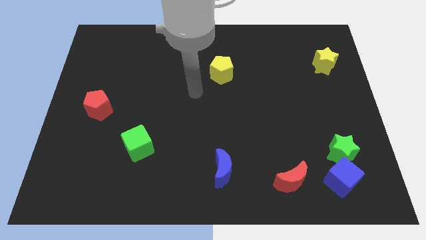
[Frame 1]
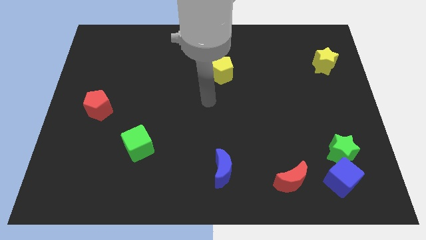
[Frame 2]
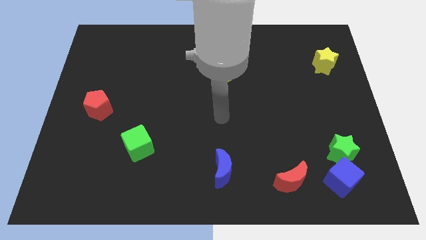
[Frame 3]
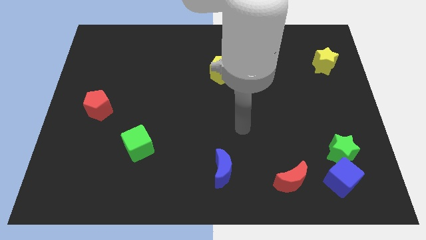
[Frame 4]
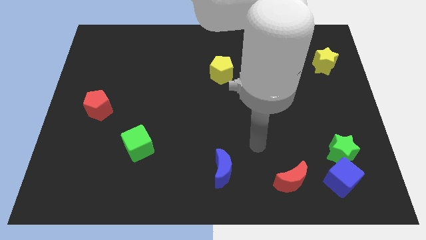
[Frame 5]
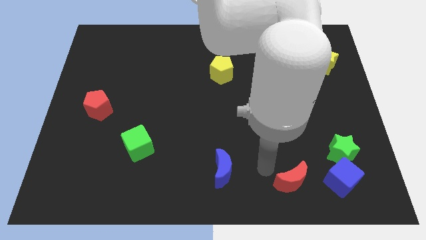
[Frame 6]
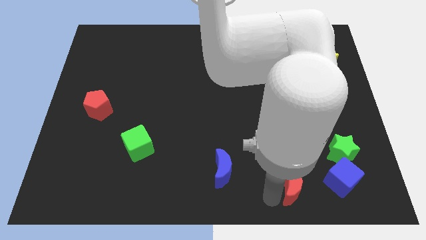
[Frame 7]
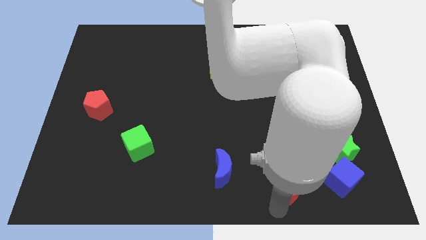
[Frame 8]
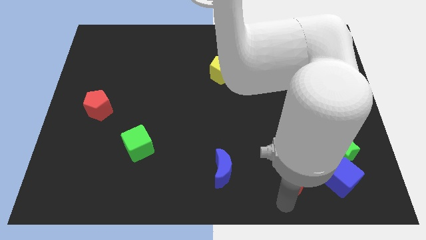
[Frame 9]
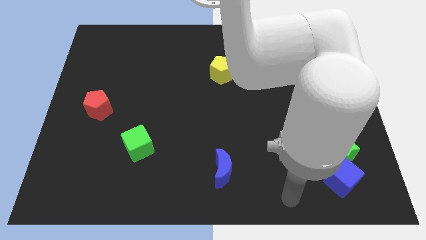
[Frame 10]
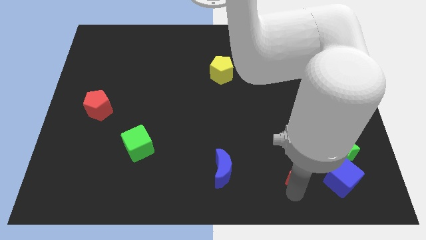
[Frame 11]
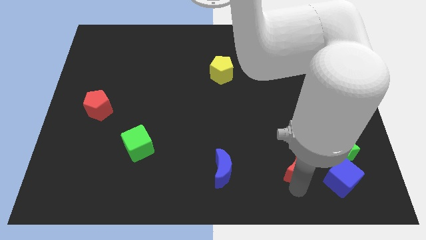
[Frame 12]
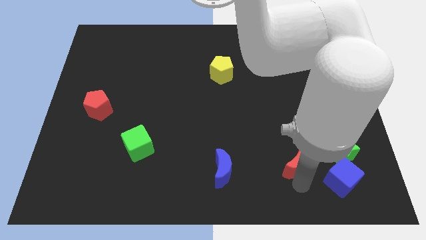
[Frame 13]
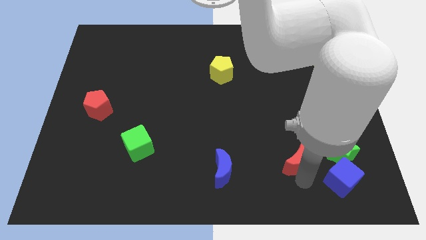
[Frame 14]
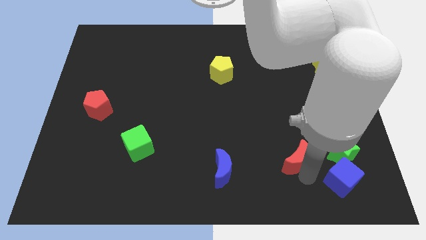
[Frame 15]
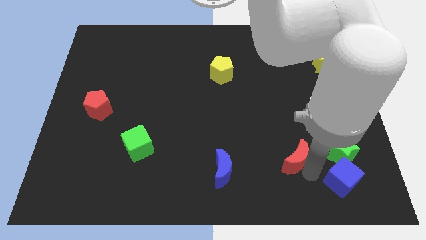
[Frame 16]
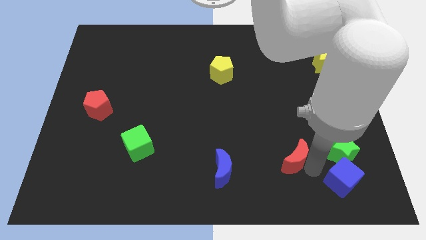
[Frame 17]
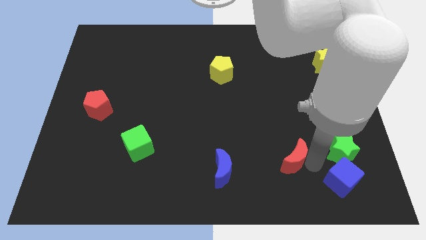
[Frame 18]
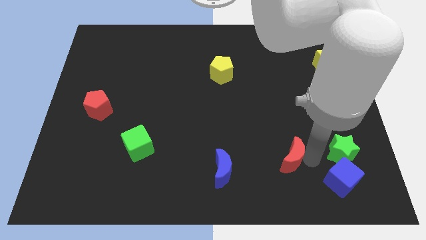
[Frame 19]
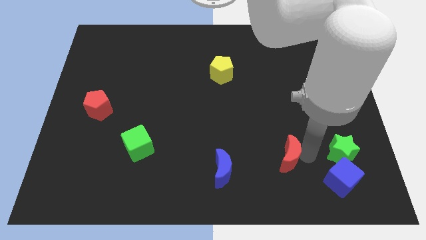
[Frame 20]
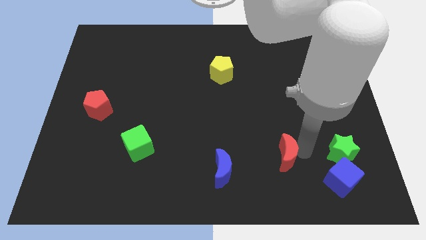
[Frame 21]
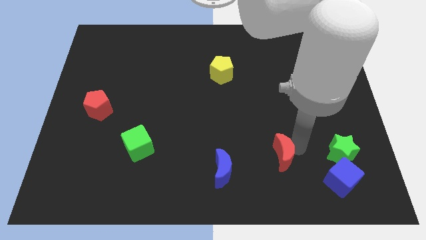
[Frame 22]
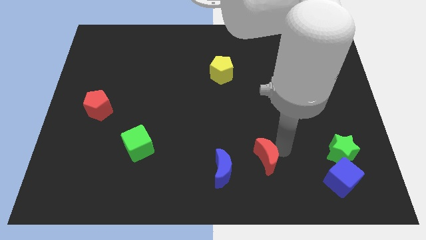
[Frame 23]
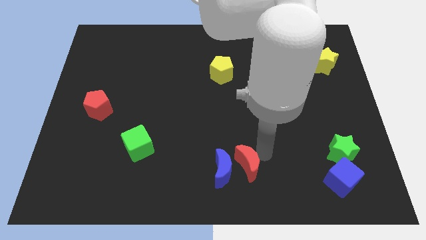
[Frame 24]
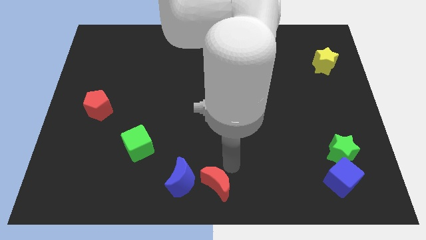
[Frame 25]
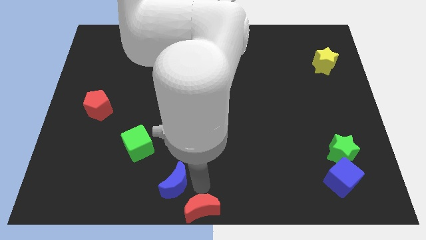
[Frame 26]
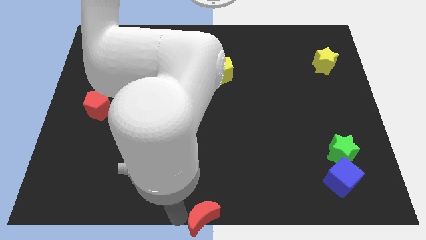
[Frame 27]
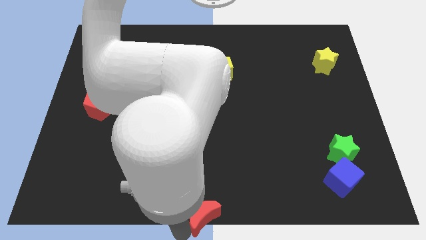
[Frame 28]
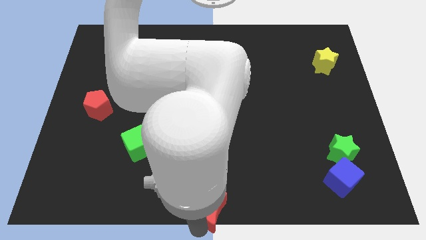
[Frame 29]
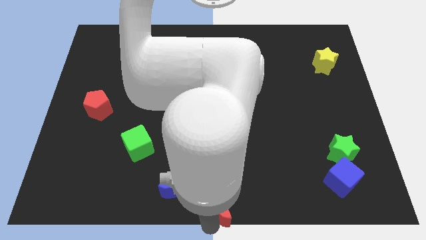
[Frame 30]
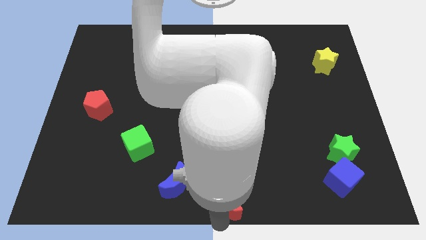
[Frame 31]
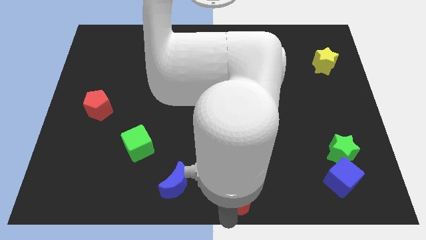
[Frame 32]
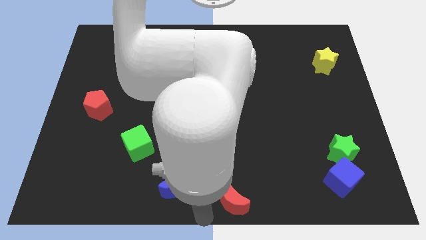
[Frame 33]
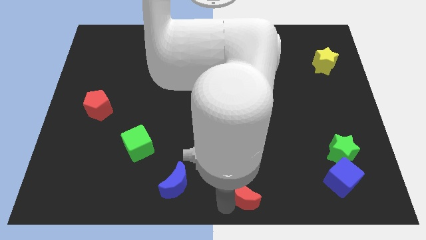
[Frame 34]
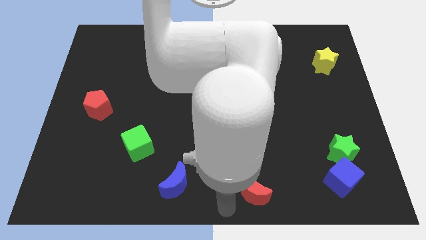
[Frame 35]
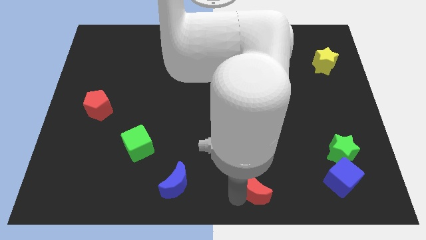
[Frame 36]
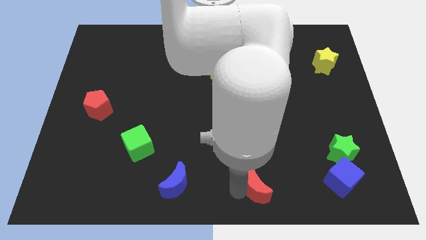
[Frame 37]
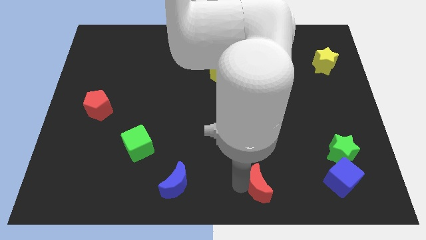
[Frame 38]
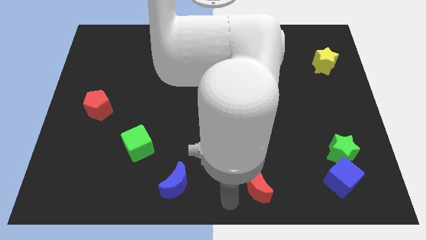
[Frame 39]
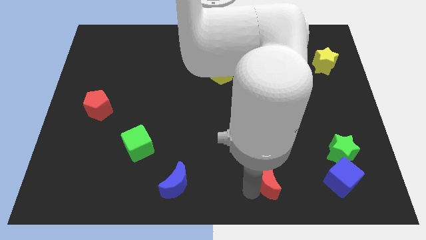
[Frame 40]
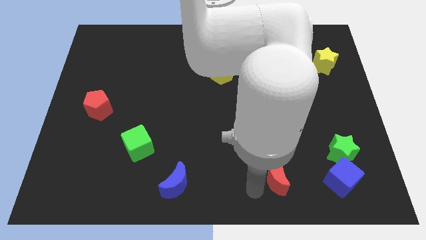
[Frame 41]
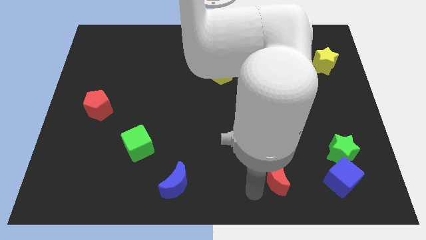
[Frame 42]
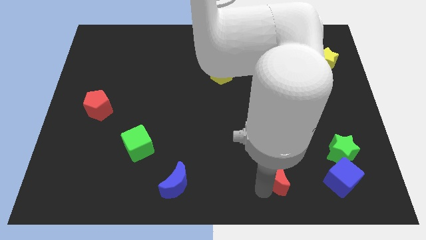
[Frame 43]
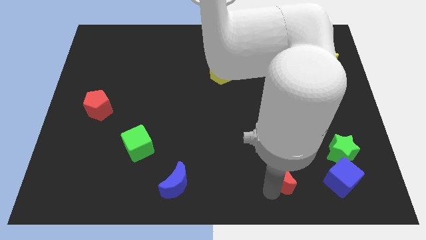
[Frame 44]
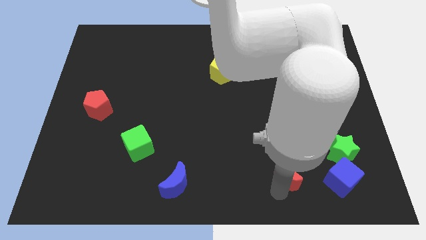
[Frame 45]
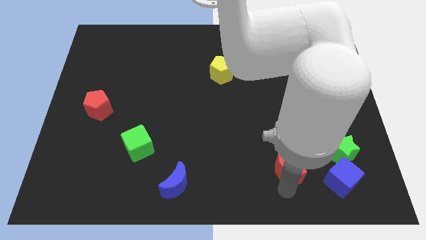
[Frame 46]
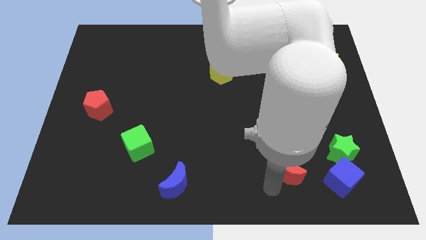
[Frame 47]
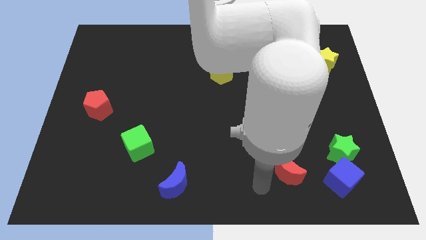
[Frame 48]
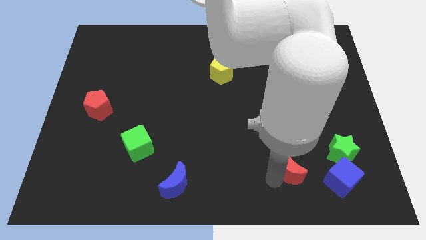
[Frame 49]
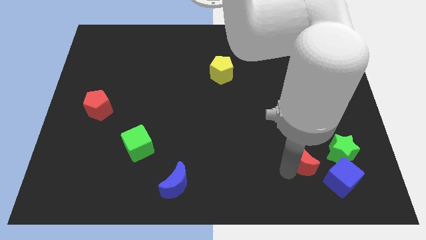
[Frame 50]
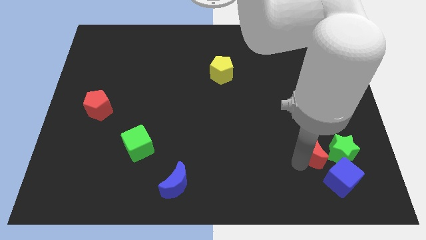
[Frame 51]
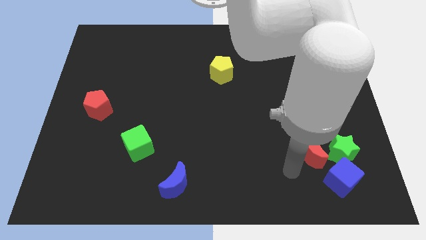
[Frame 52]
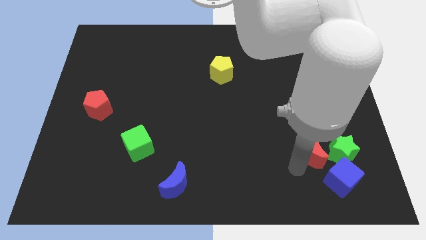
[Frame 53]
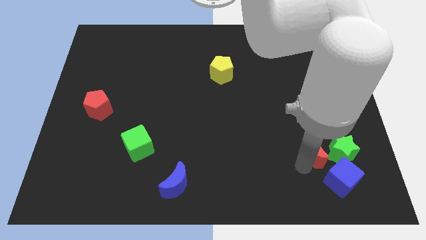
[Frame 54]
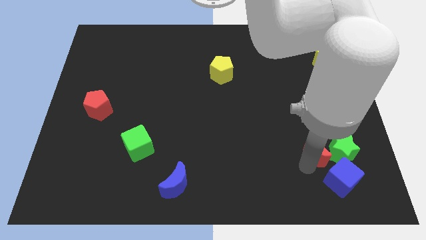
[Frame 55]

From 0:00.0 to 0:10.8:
move the red moon to the top of the blue cube

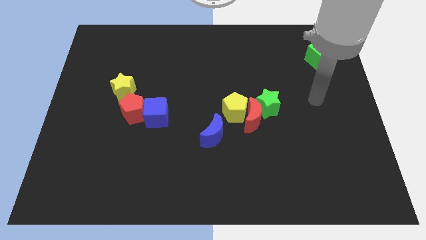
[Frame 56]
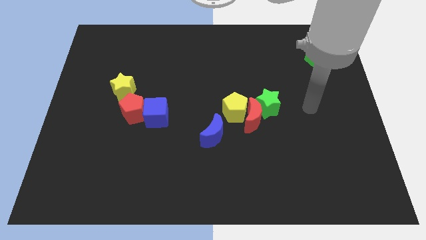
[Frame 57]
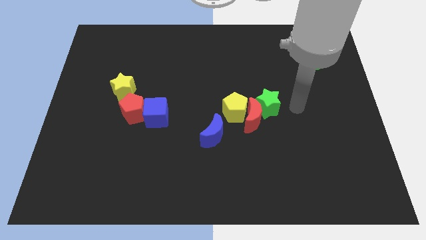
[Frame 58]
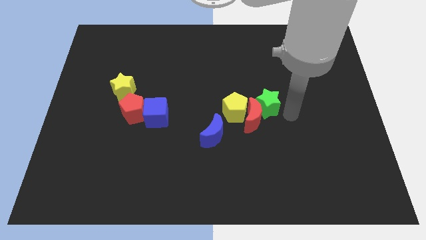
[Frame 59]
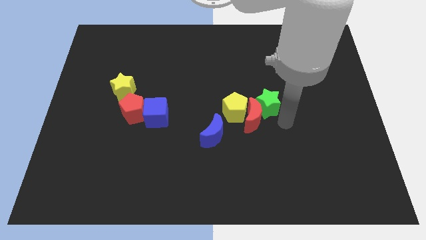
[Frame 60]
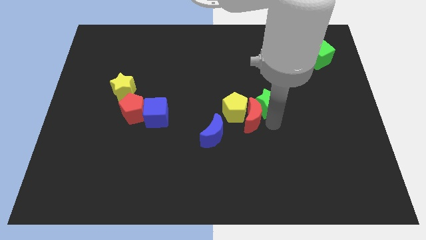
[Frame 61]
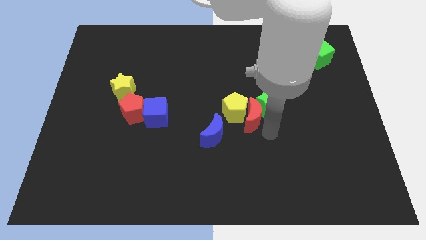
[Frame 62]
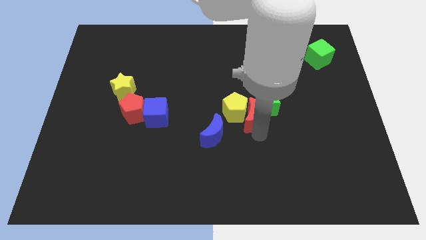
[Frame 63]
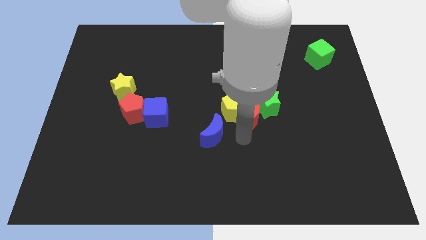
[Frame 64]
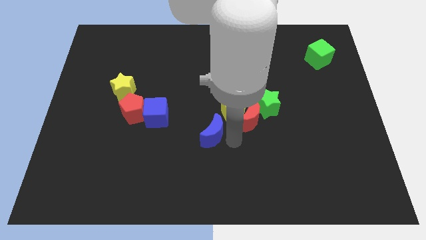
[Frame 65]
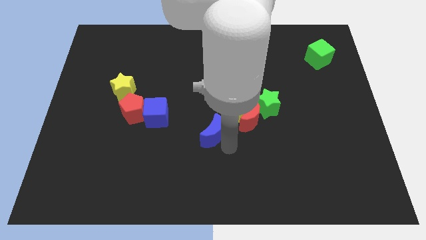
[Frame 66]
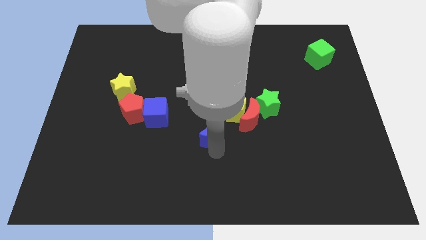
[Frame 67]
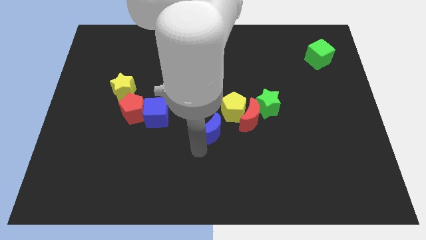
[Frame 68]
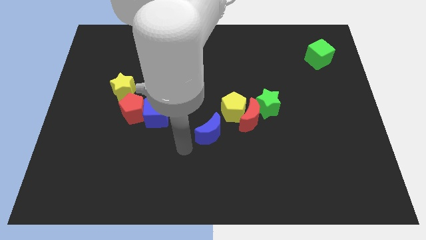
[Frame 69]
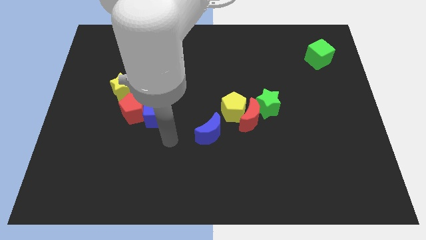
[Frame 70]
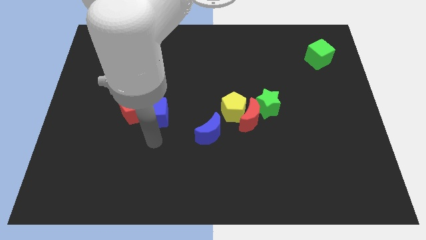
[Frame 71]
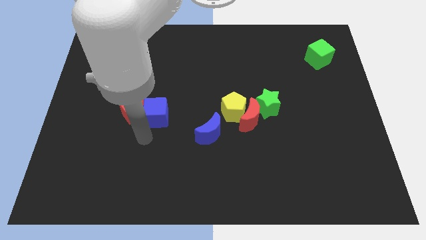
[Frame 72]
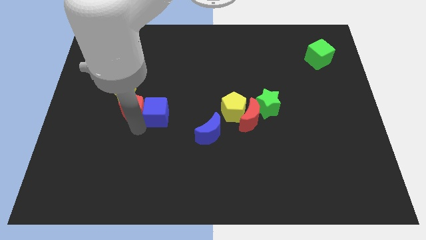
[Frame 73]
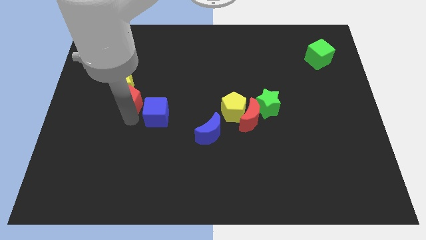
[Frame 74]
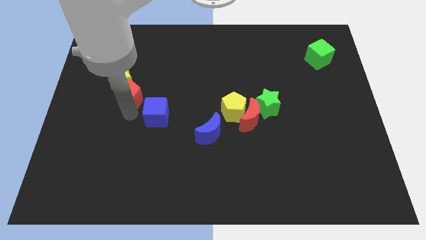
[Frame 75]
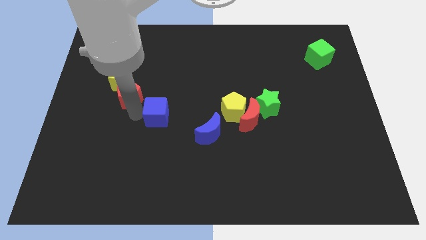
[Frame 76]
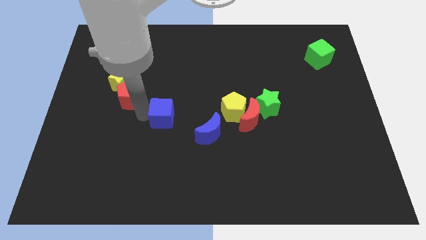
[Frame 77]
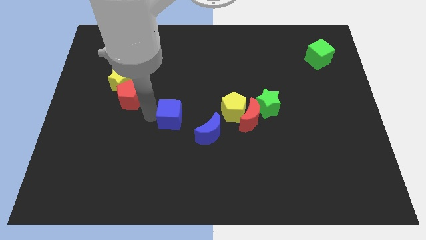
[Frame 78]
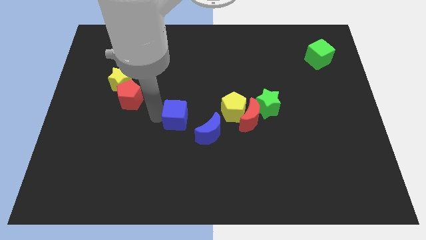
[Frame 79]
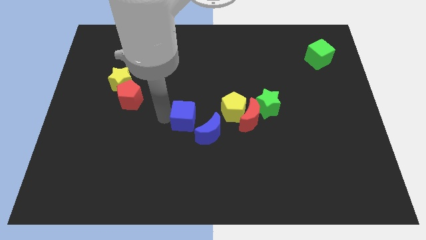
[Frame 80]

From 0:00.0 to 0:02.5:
put the blue cube left of the red moon
